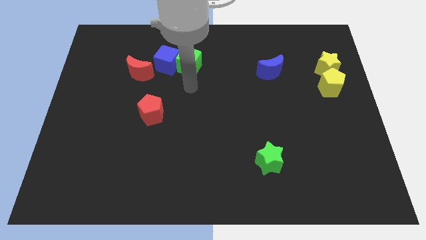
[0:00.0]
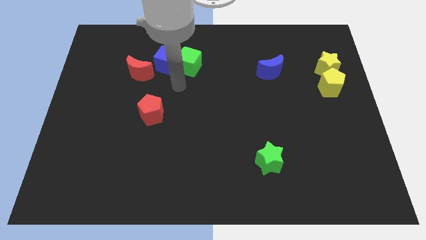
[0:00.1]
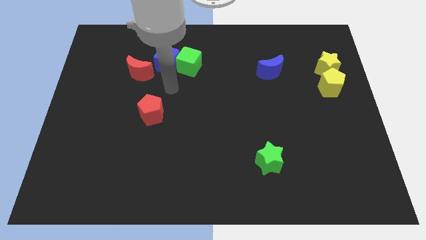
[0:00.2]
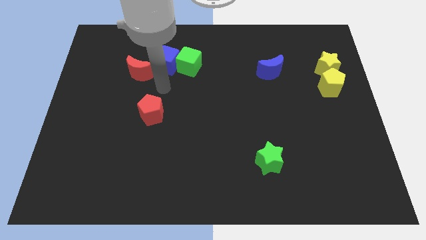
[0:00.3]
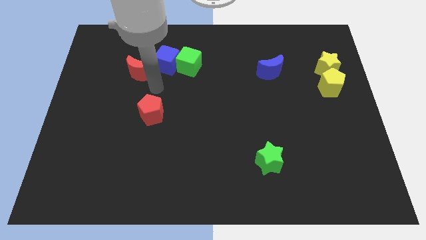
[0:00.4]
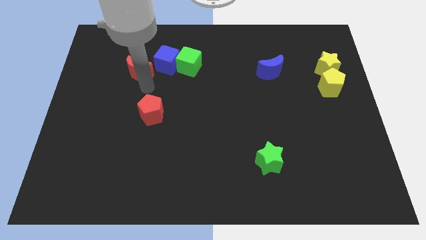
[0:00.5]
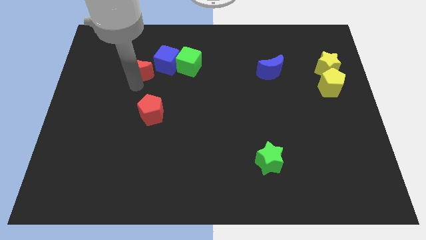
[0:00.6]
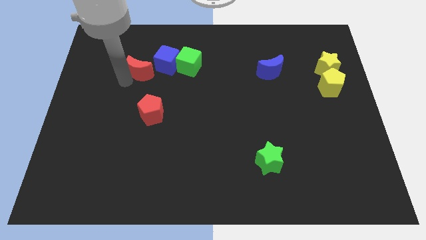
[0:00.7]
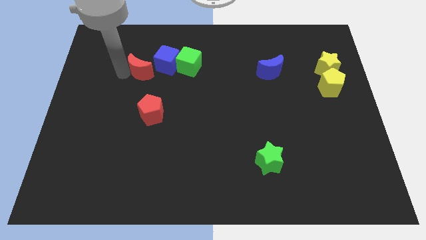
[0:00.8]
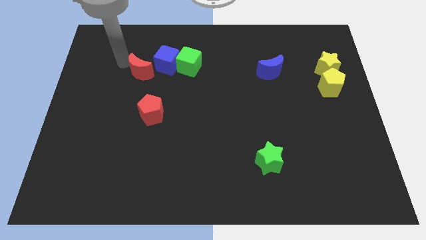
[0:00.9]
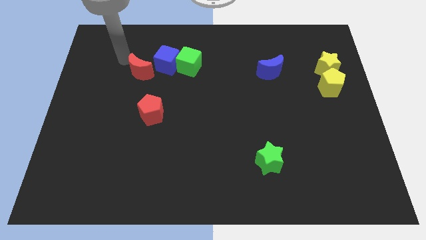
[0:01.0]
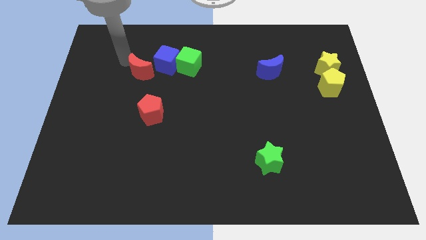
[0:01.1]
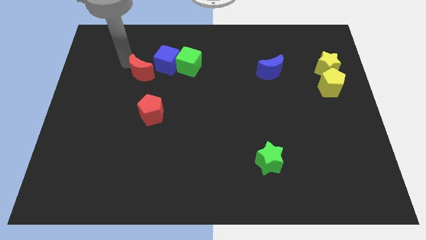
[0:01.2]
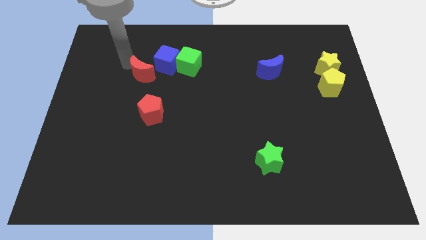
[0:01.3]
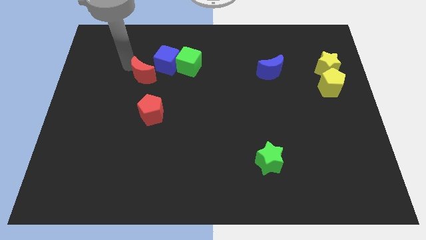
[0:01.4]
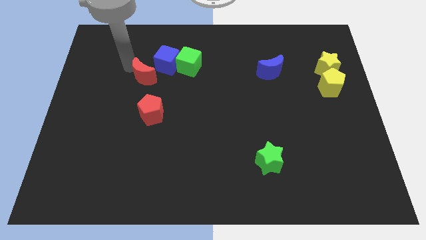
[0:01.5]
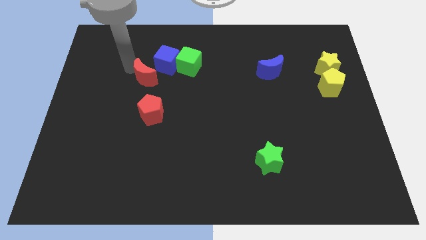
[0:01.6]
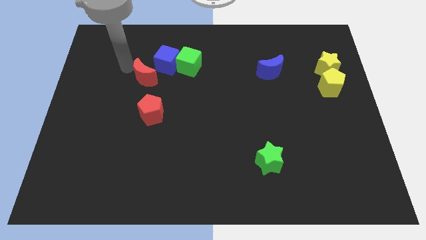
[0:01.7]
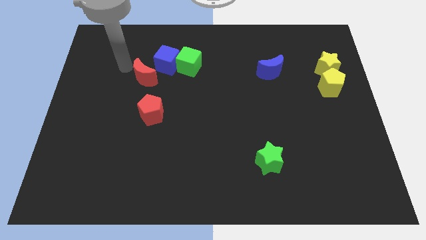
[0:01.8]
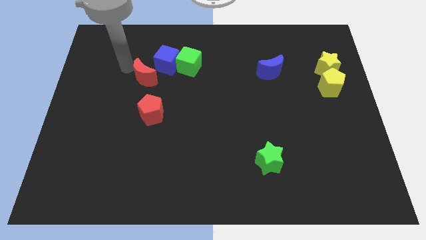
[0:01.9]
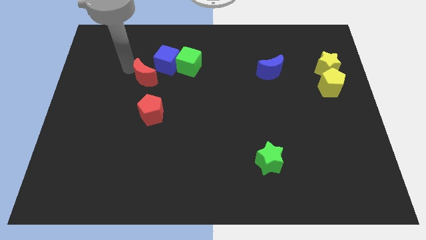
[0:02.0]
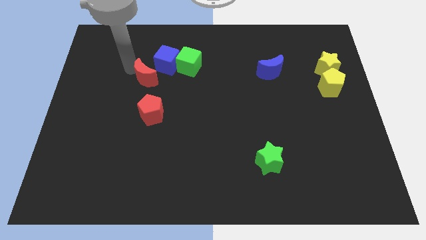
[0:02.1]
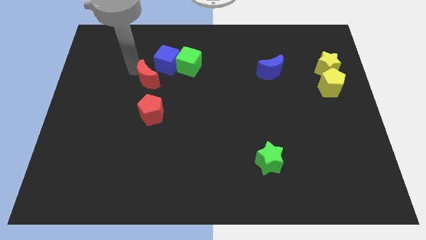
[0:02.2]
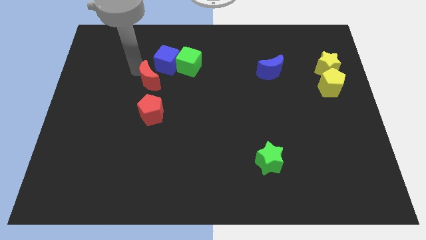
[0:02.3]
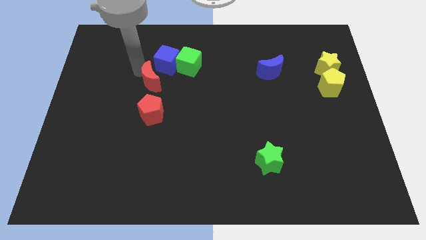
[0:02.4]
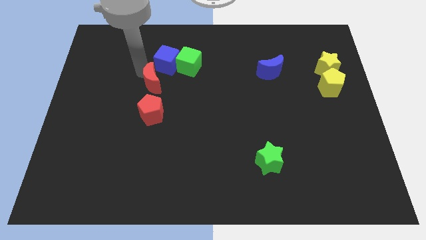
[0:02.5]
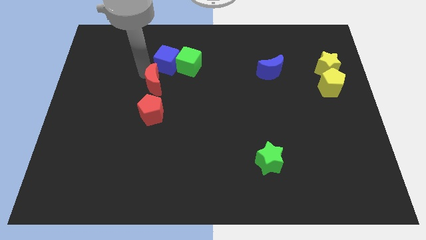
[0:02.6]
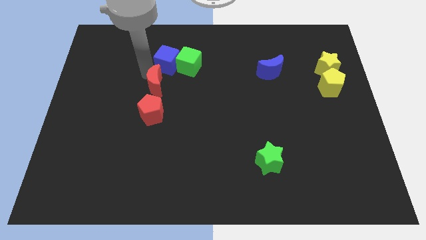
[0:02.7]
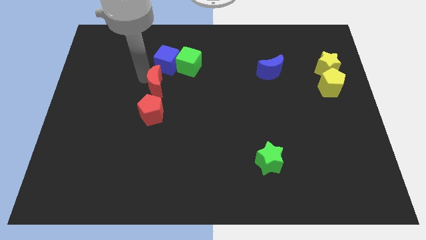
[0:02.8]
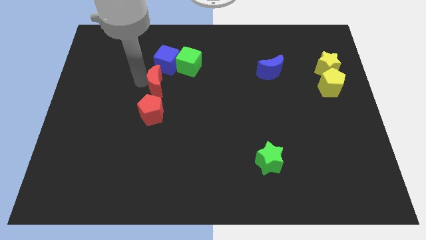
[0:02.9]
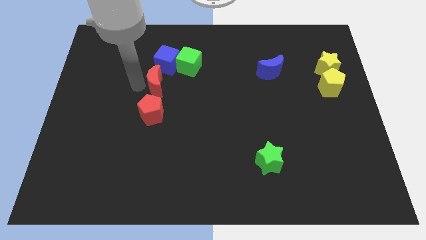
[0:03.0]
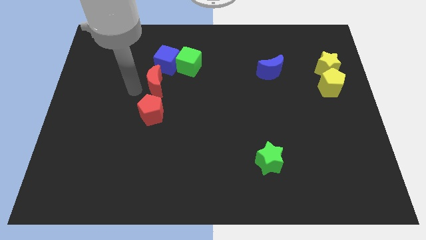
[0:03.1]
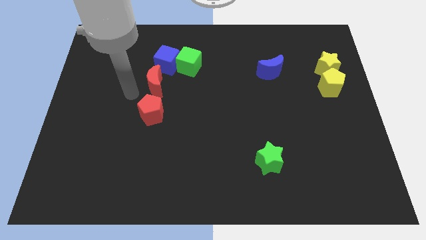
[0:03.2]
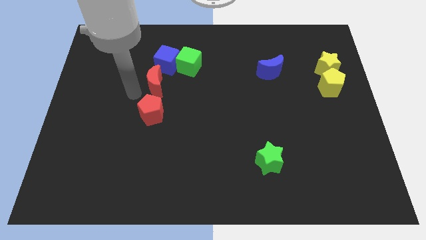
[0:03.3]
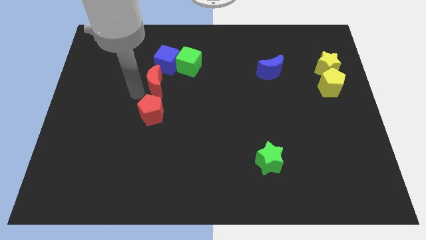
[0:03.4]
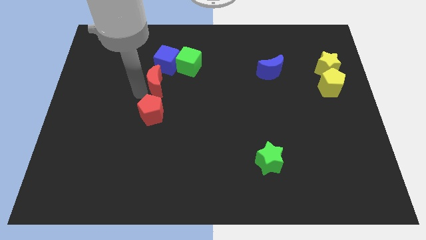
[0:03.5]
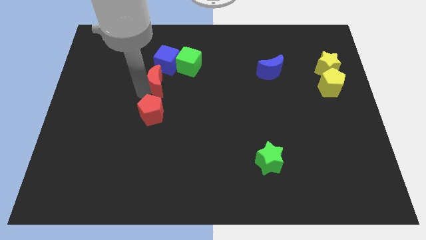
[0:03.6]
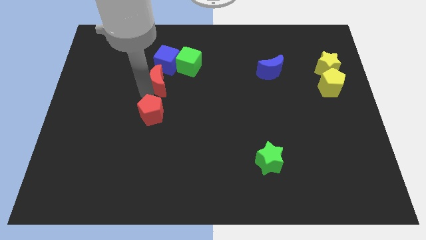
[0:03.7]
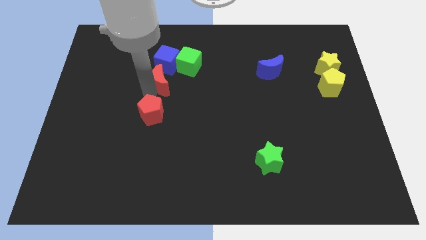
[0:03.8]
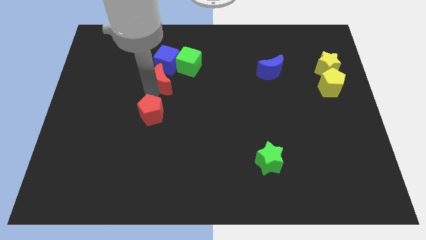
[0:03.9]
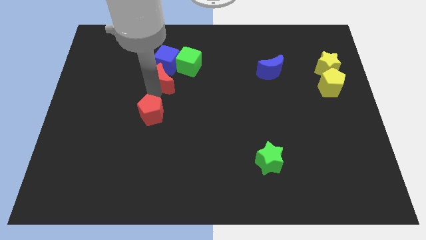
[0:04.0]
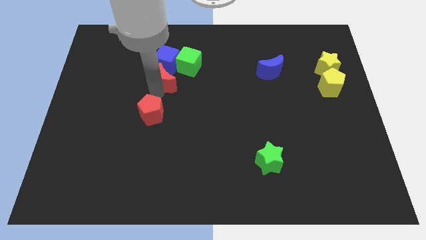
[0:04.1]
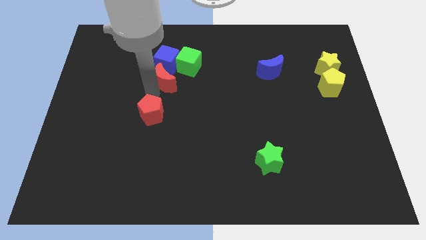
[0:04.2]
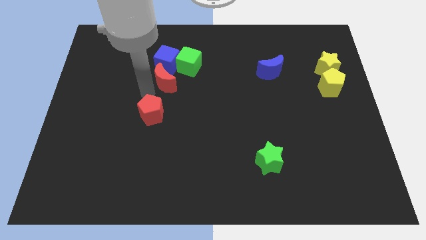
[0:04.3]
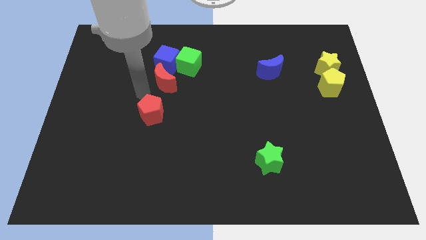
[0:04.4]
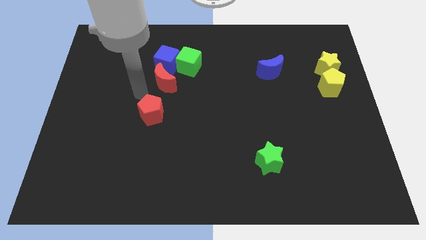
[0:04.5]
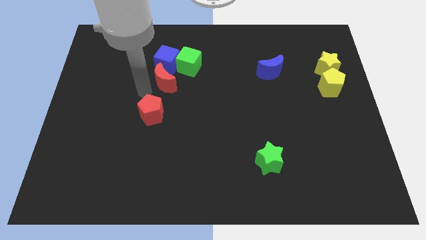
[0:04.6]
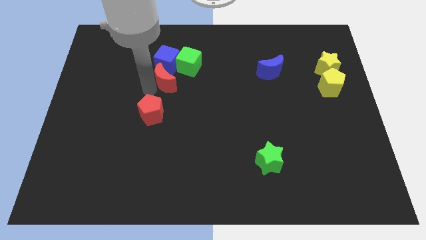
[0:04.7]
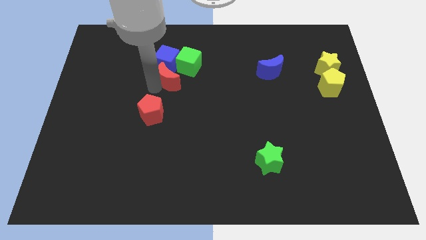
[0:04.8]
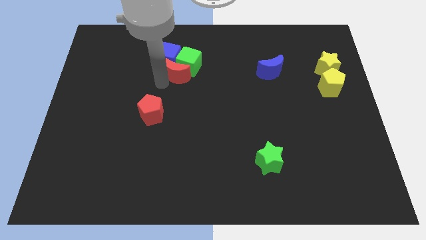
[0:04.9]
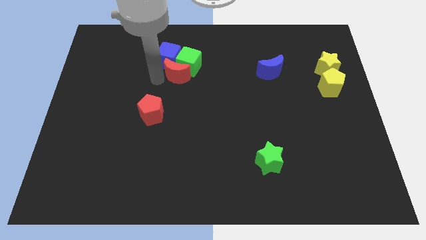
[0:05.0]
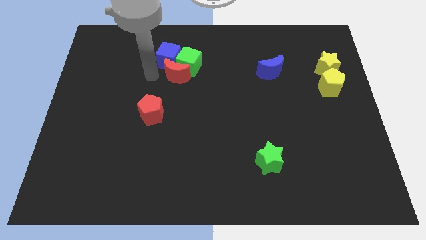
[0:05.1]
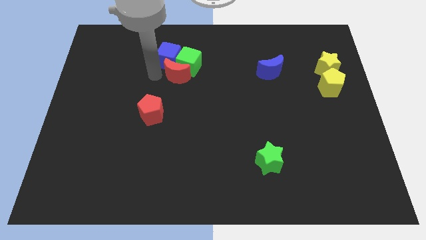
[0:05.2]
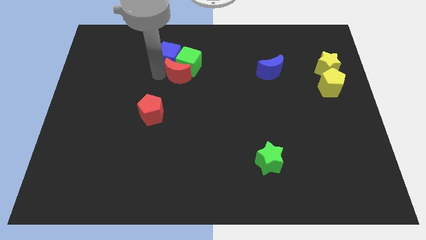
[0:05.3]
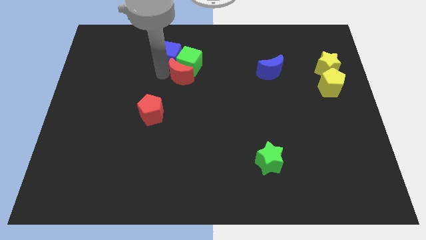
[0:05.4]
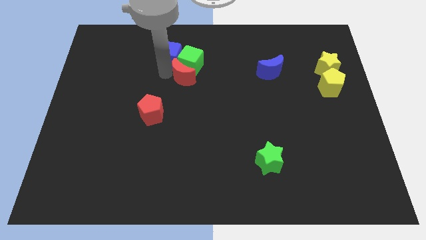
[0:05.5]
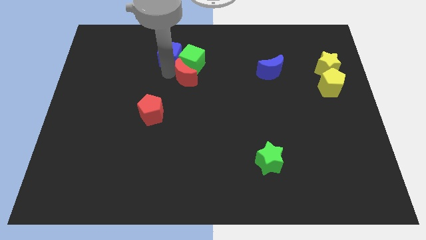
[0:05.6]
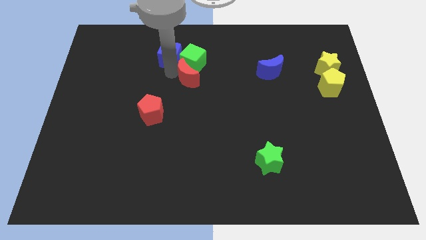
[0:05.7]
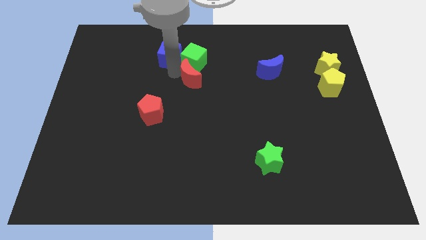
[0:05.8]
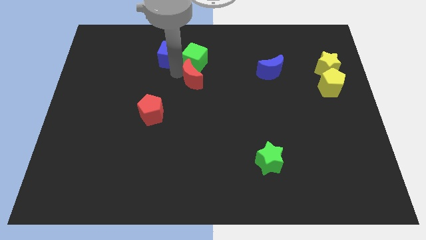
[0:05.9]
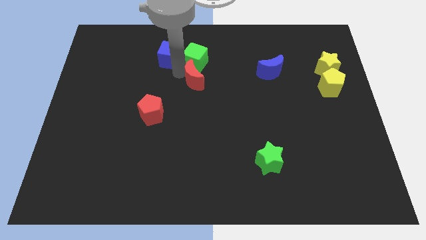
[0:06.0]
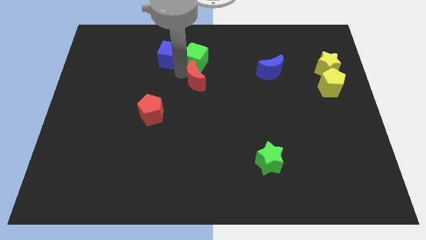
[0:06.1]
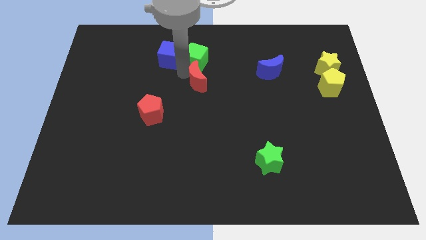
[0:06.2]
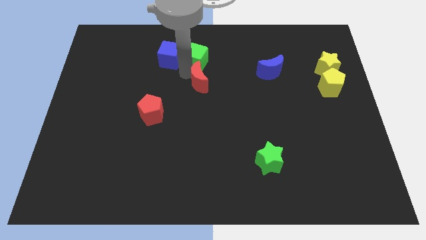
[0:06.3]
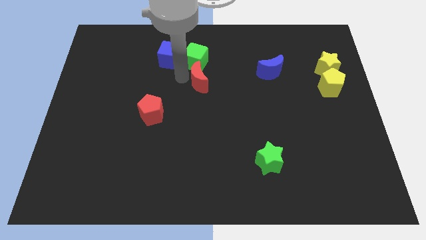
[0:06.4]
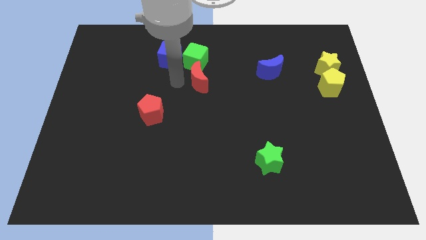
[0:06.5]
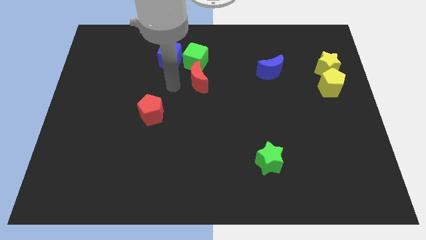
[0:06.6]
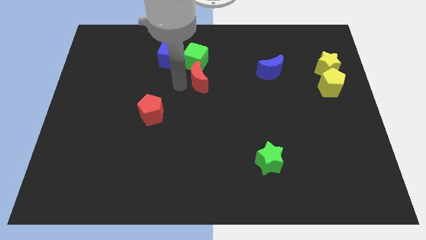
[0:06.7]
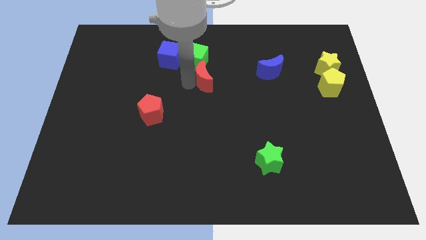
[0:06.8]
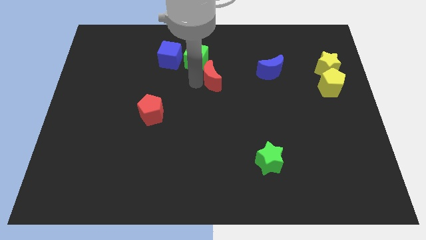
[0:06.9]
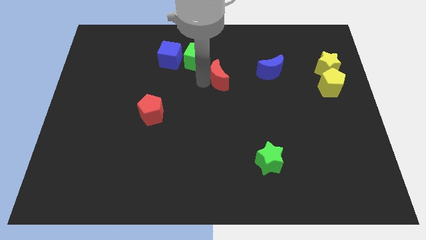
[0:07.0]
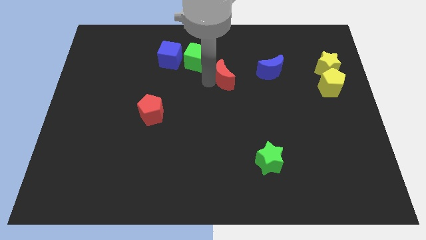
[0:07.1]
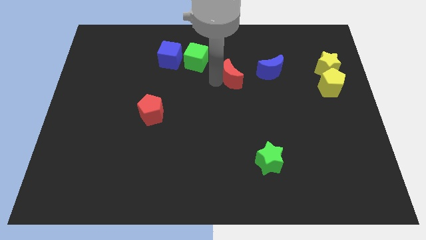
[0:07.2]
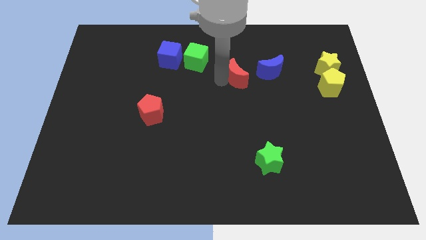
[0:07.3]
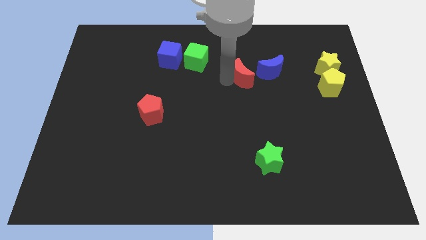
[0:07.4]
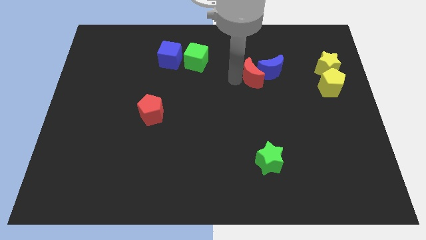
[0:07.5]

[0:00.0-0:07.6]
slide the red moon to the blue moon
